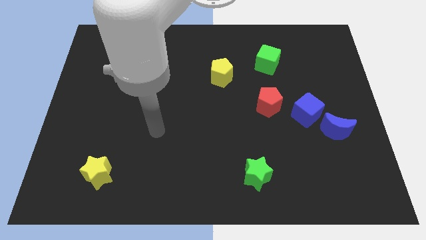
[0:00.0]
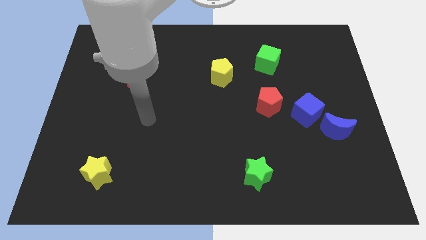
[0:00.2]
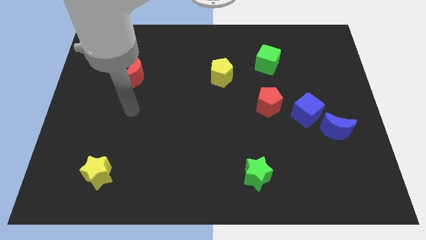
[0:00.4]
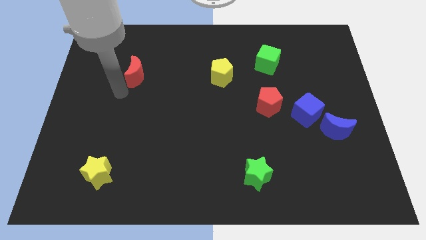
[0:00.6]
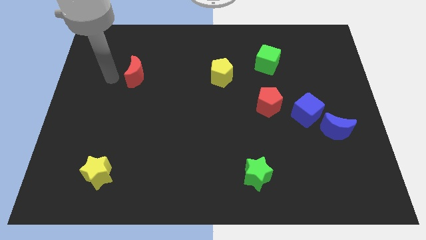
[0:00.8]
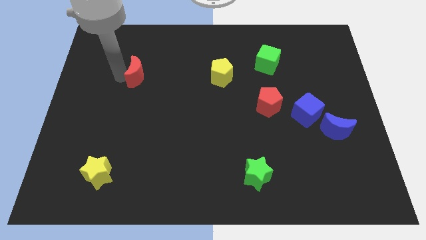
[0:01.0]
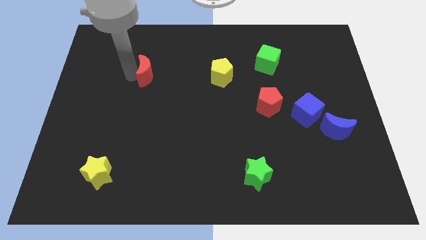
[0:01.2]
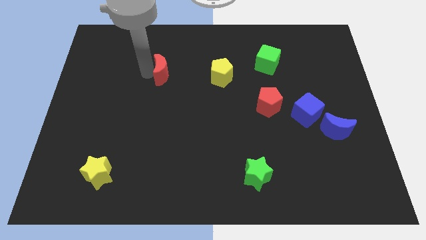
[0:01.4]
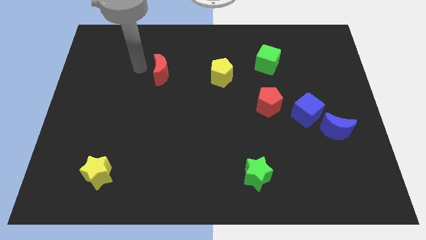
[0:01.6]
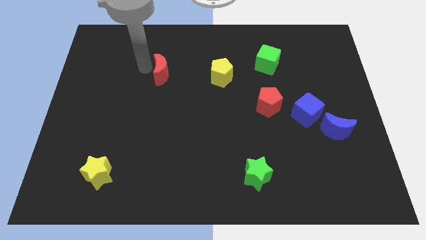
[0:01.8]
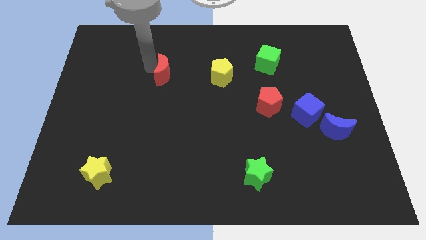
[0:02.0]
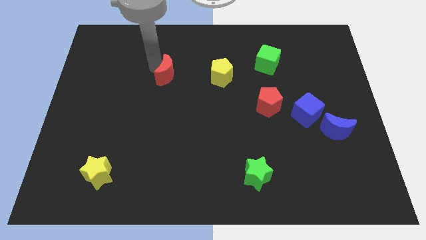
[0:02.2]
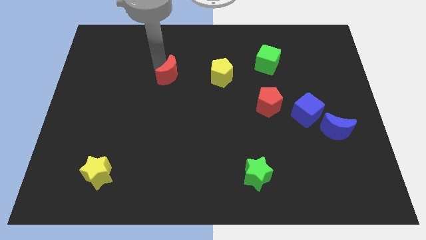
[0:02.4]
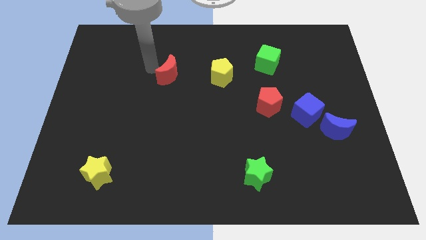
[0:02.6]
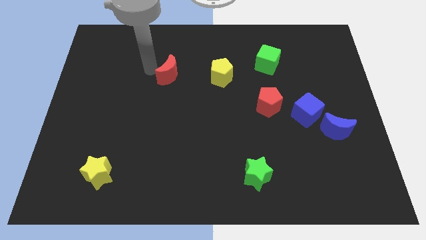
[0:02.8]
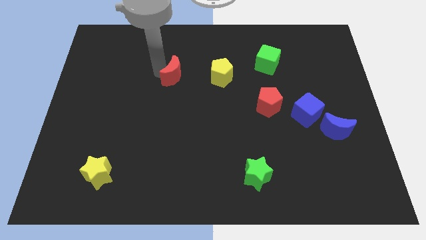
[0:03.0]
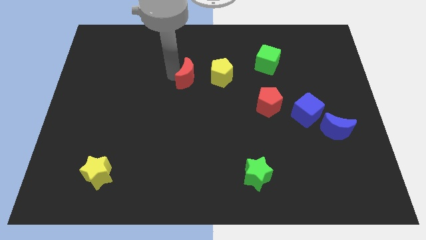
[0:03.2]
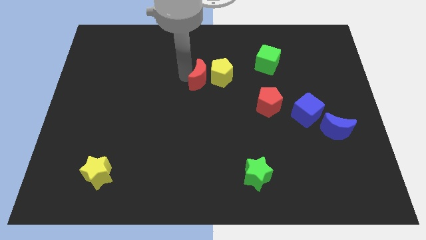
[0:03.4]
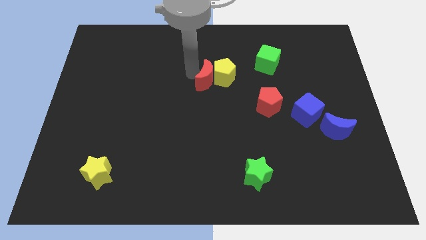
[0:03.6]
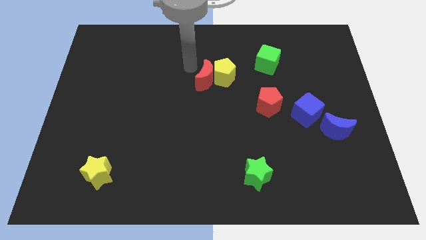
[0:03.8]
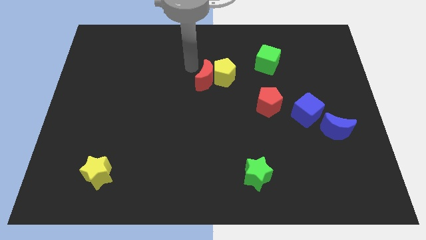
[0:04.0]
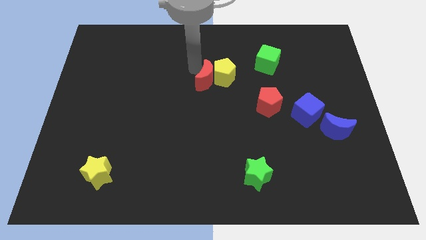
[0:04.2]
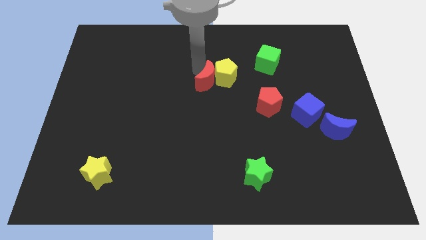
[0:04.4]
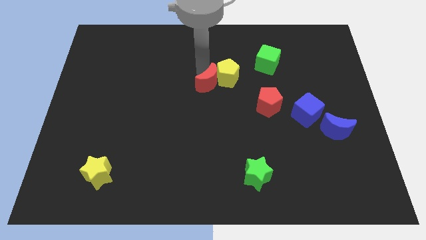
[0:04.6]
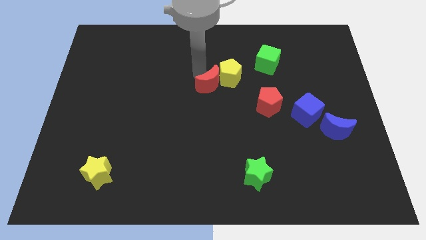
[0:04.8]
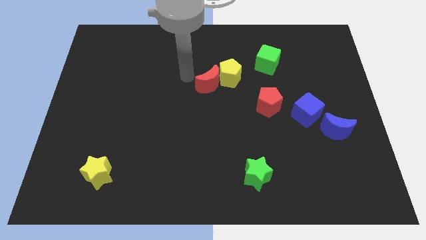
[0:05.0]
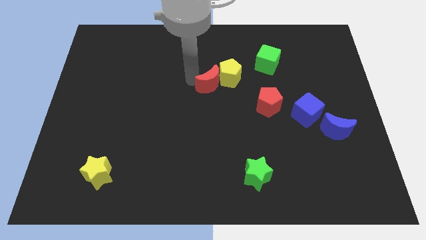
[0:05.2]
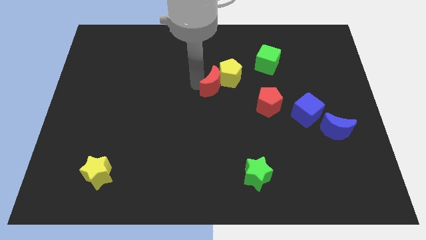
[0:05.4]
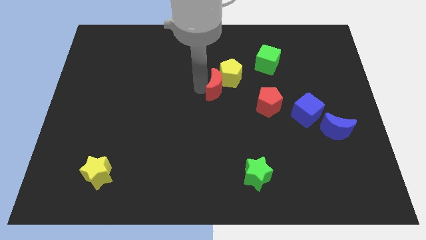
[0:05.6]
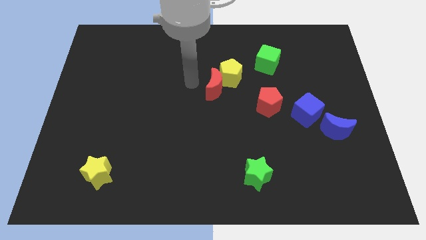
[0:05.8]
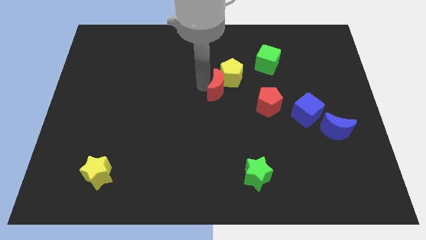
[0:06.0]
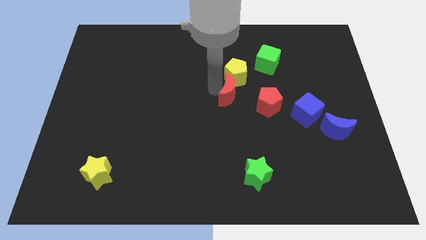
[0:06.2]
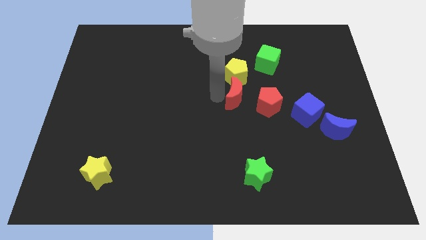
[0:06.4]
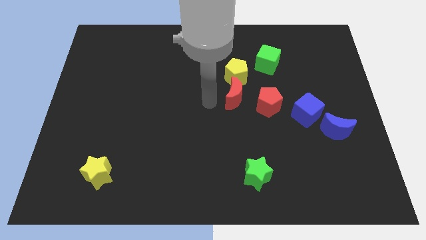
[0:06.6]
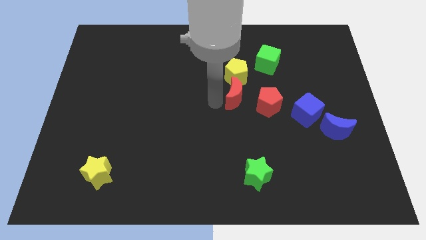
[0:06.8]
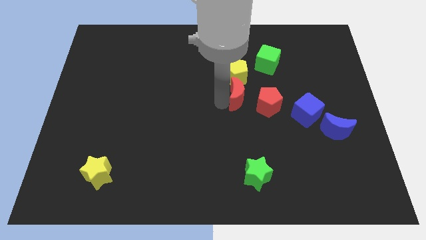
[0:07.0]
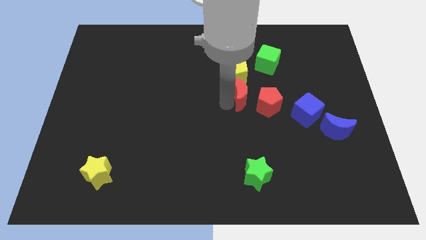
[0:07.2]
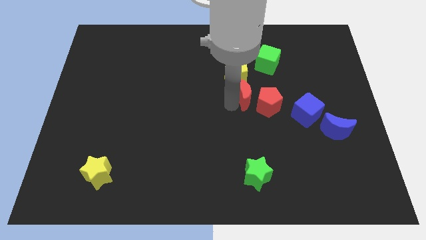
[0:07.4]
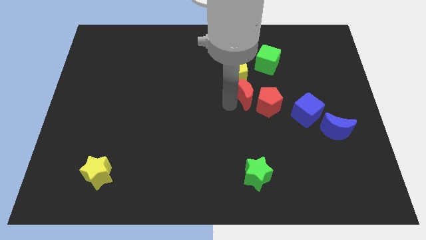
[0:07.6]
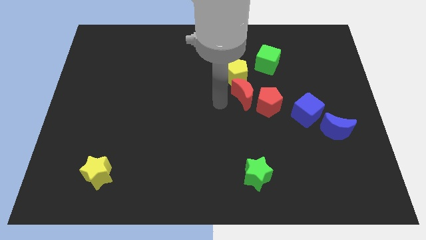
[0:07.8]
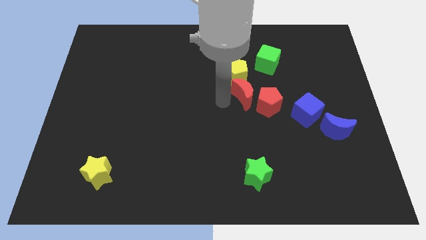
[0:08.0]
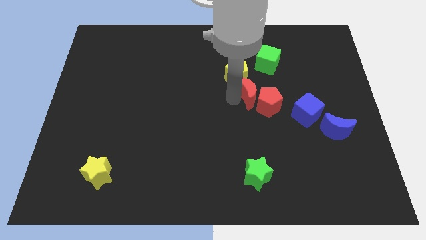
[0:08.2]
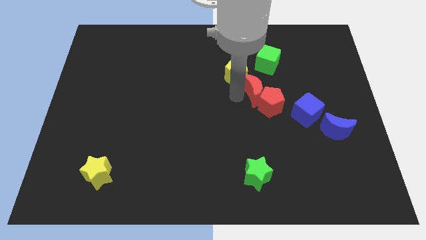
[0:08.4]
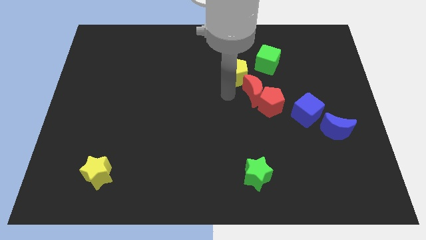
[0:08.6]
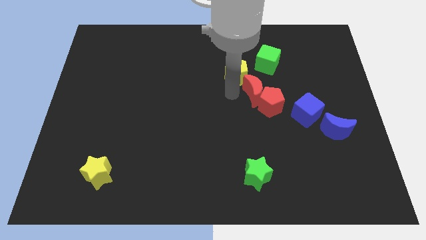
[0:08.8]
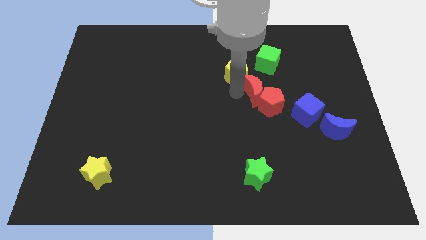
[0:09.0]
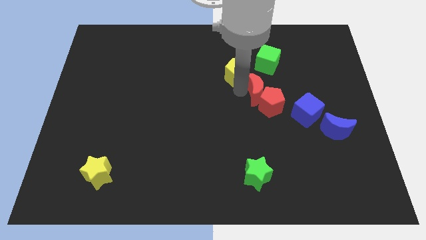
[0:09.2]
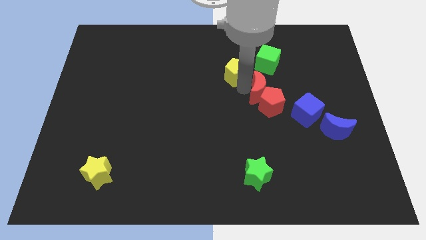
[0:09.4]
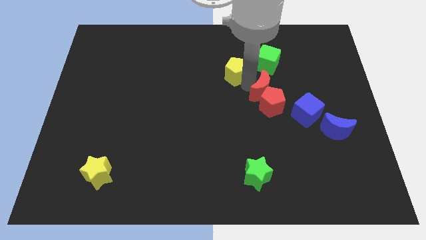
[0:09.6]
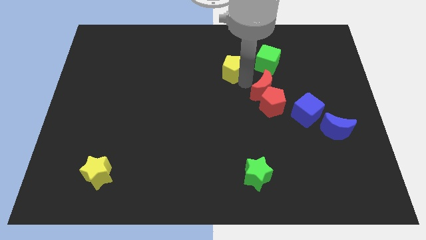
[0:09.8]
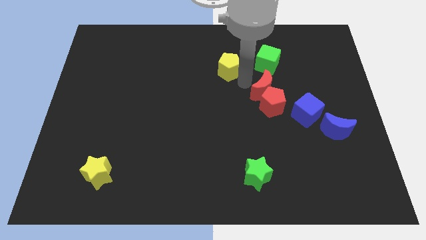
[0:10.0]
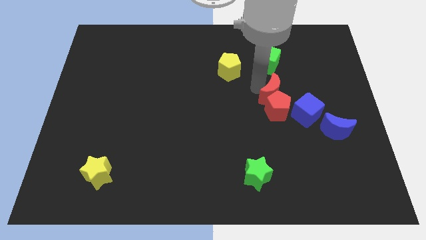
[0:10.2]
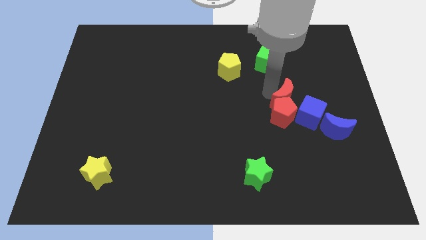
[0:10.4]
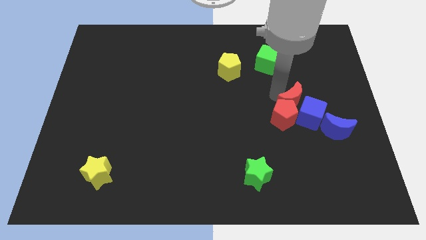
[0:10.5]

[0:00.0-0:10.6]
move the red moon next to the blue cube

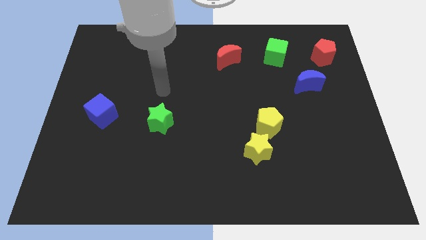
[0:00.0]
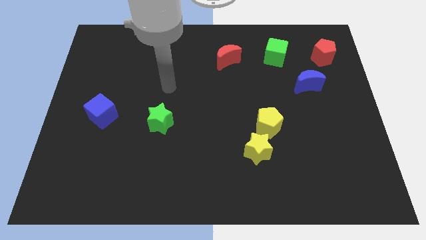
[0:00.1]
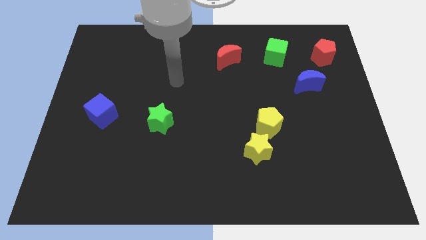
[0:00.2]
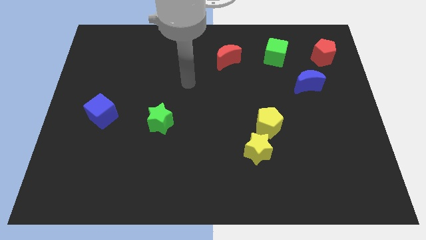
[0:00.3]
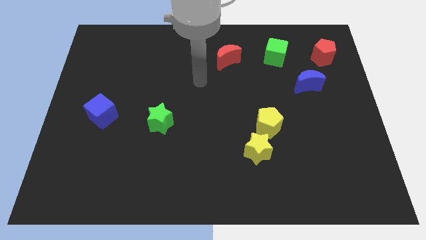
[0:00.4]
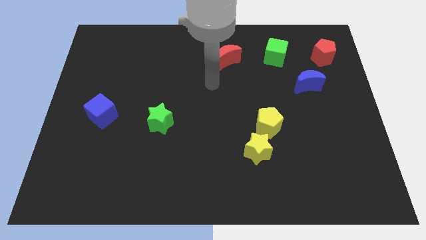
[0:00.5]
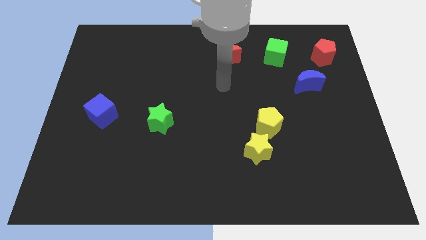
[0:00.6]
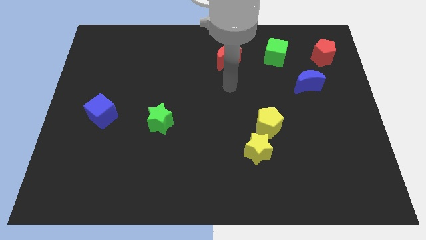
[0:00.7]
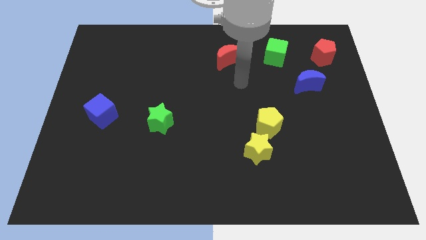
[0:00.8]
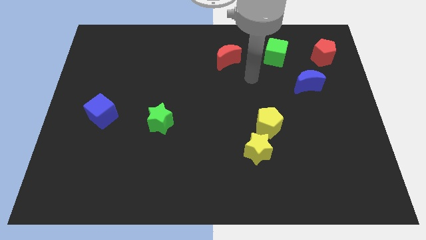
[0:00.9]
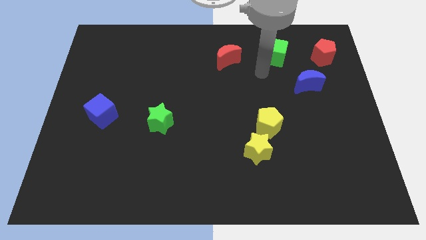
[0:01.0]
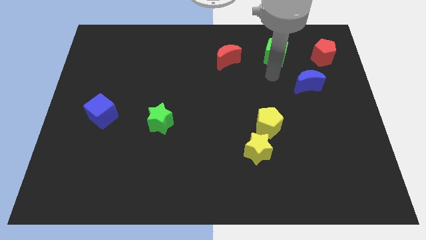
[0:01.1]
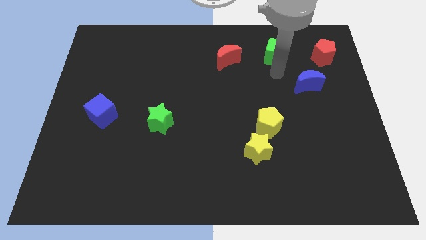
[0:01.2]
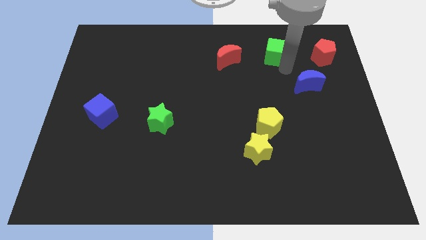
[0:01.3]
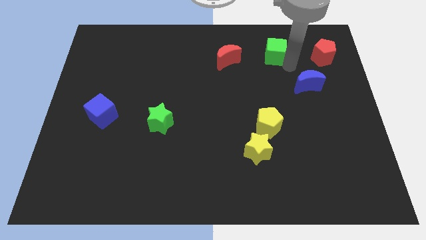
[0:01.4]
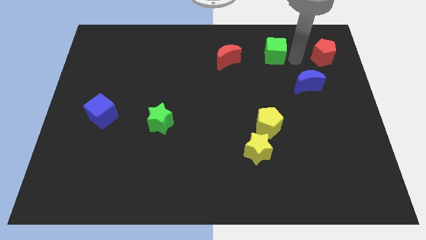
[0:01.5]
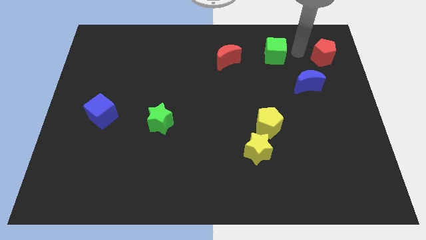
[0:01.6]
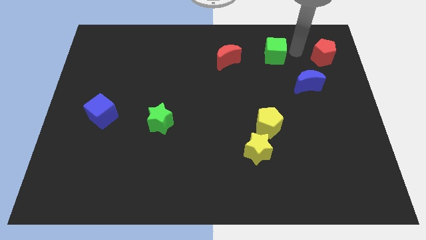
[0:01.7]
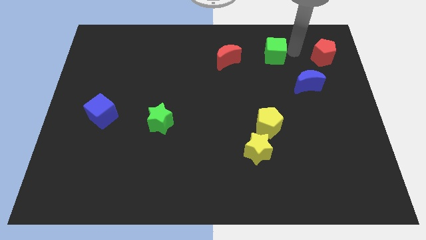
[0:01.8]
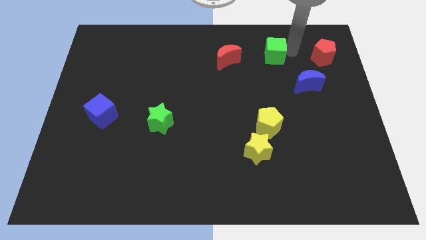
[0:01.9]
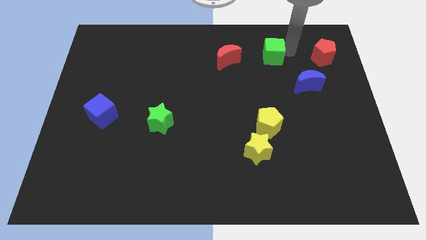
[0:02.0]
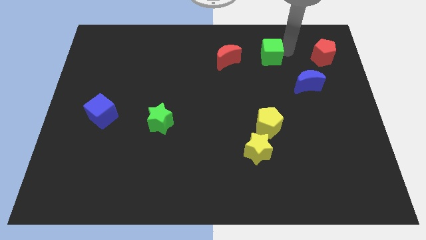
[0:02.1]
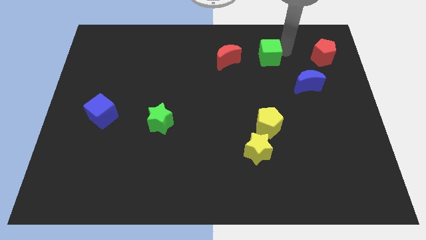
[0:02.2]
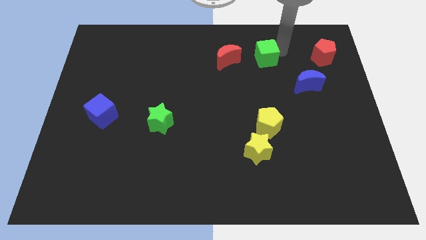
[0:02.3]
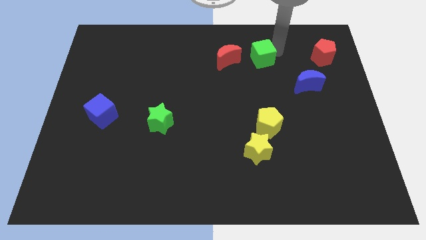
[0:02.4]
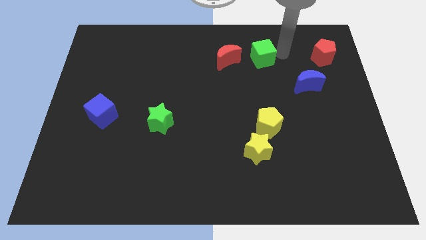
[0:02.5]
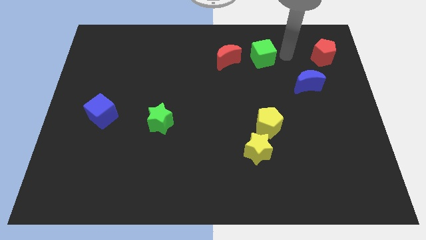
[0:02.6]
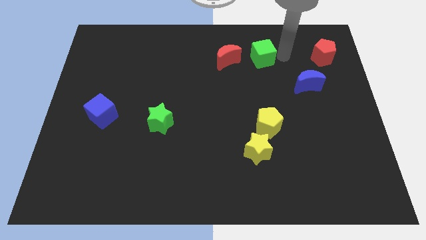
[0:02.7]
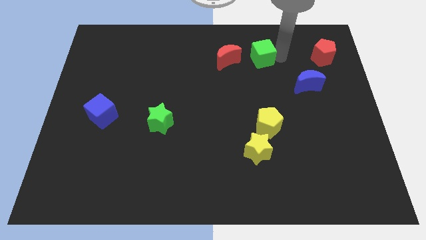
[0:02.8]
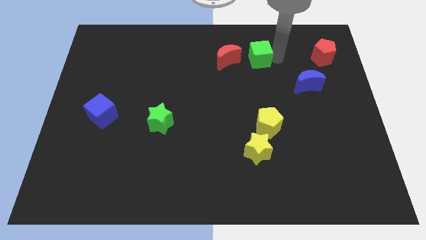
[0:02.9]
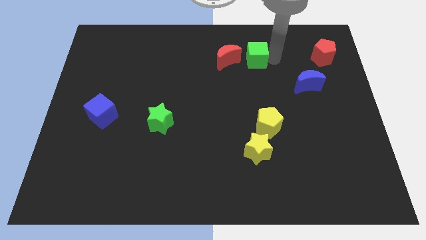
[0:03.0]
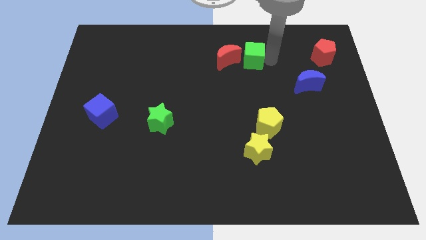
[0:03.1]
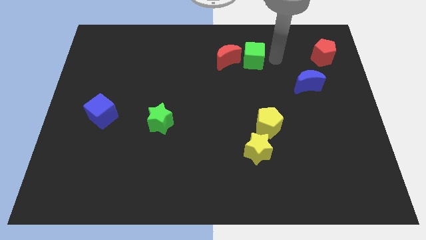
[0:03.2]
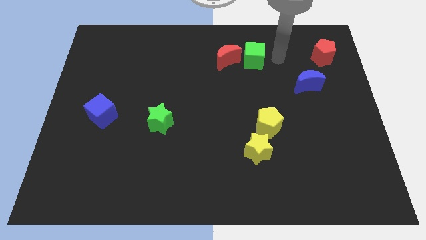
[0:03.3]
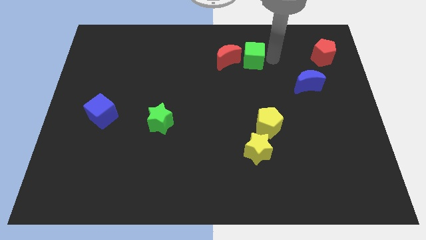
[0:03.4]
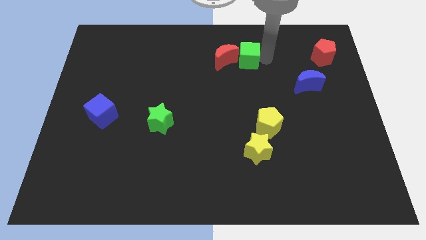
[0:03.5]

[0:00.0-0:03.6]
put the green cube towards the red moon
